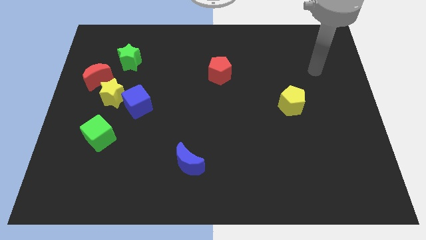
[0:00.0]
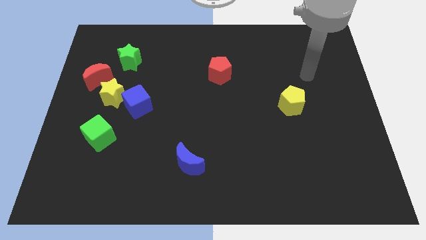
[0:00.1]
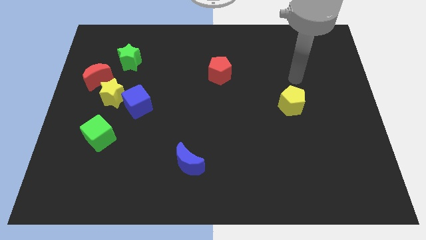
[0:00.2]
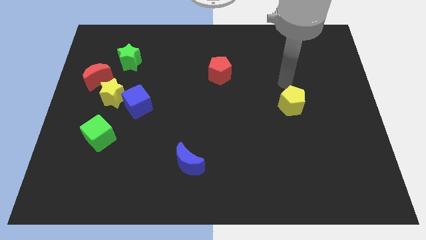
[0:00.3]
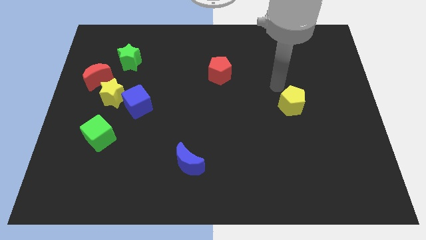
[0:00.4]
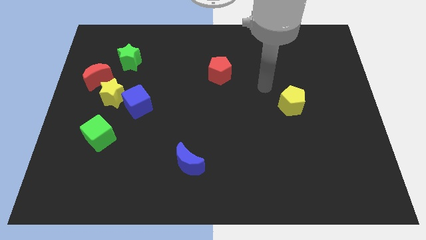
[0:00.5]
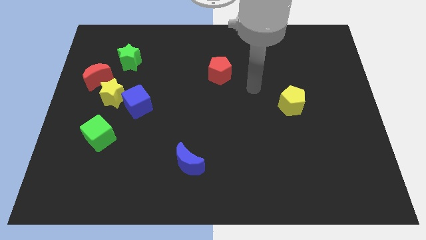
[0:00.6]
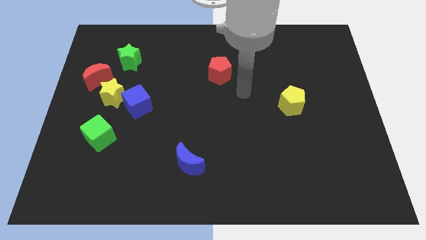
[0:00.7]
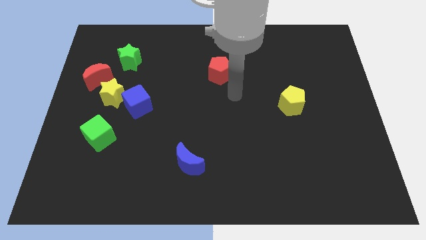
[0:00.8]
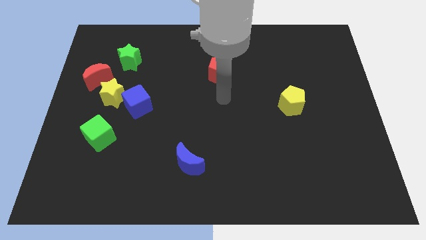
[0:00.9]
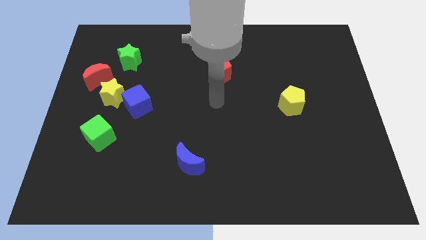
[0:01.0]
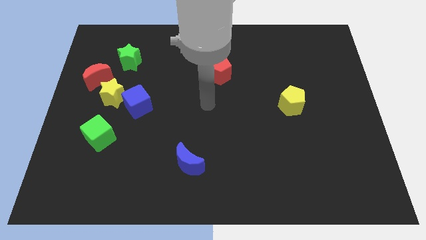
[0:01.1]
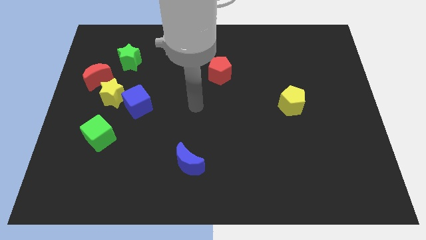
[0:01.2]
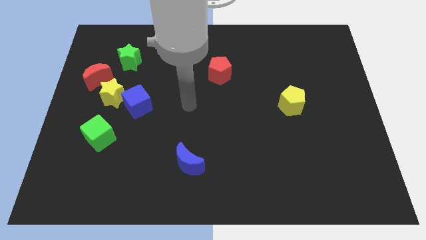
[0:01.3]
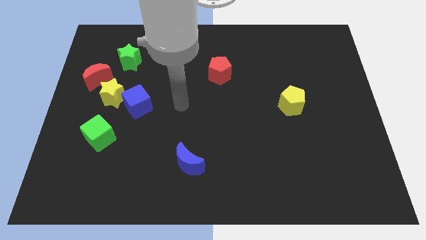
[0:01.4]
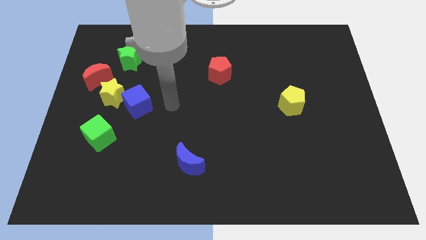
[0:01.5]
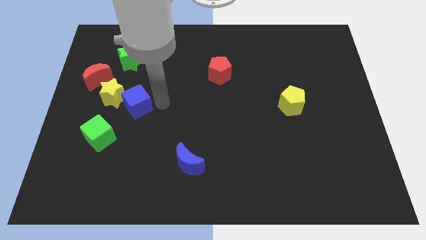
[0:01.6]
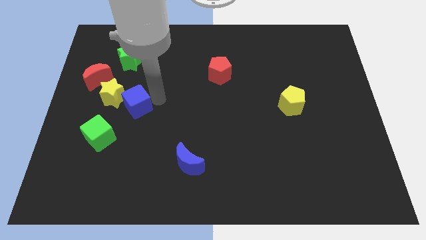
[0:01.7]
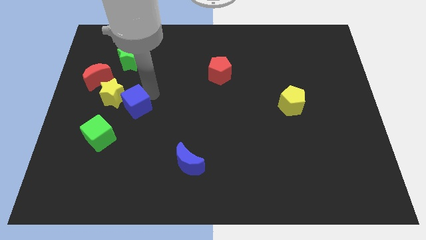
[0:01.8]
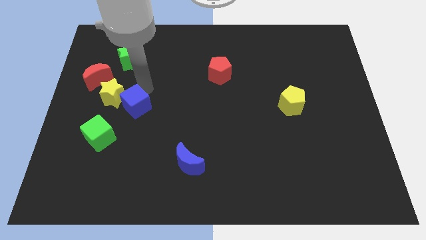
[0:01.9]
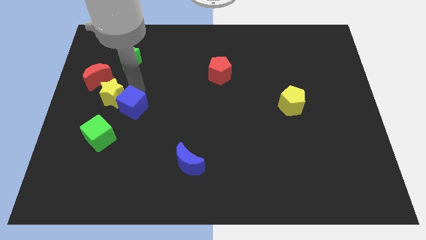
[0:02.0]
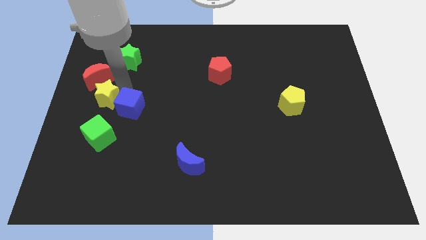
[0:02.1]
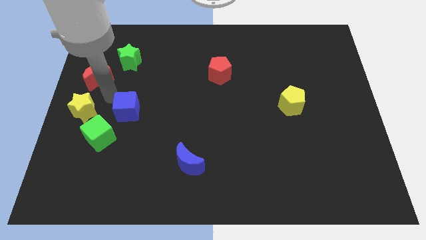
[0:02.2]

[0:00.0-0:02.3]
separate the blue cube from the yellow star

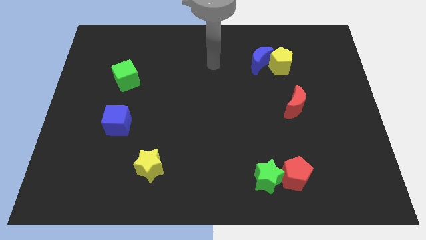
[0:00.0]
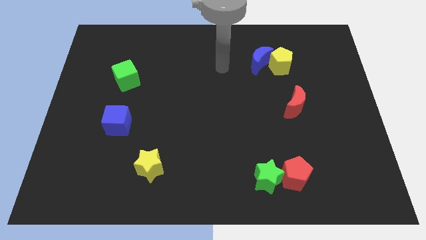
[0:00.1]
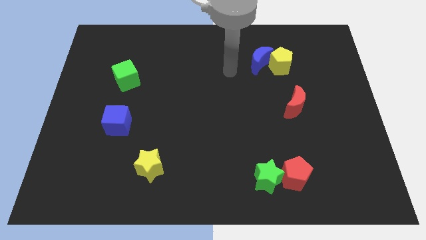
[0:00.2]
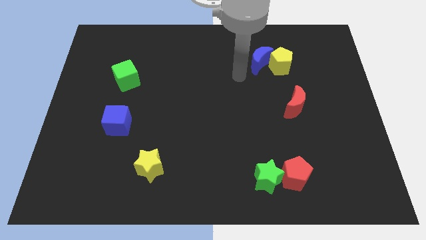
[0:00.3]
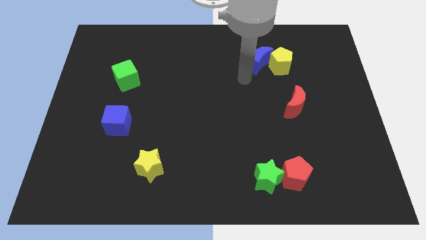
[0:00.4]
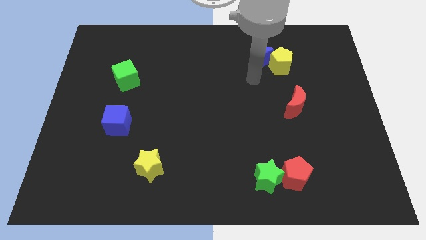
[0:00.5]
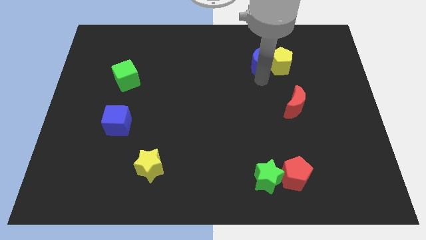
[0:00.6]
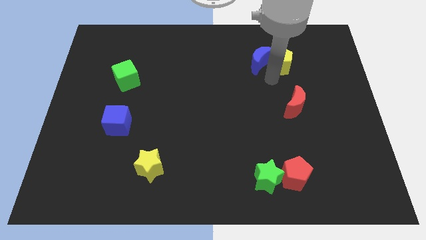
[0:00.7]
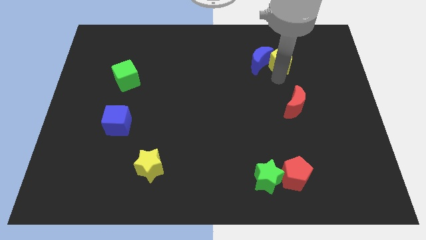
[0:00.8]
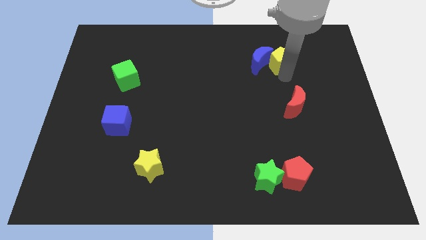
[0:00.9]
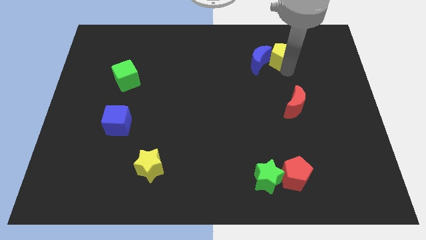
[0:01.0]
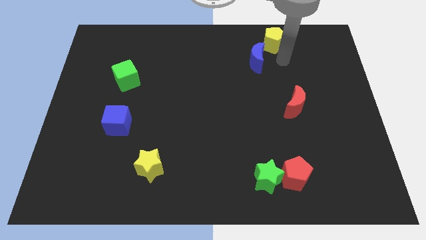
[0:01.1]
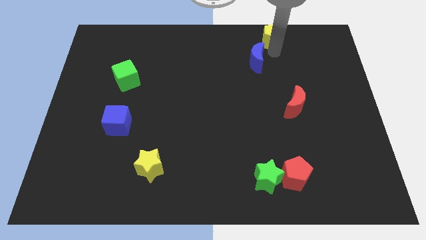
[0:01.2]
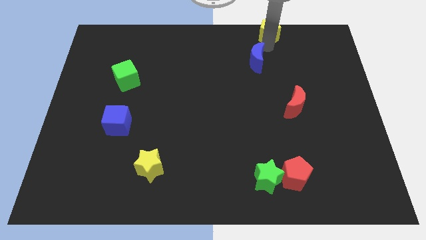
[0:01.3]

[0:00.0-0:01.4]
move the blue moon away from the yellow pentagon

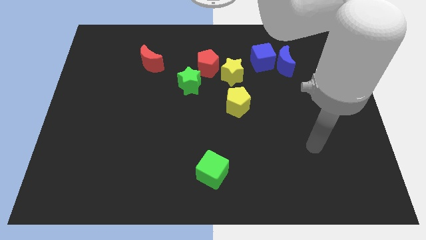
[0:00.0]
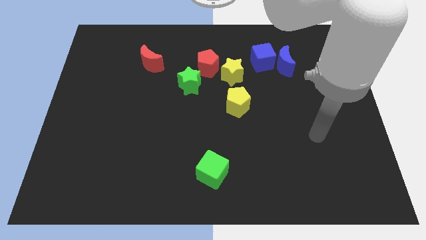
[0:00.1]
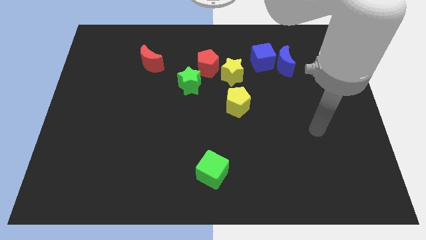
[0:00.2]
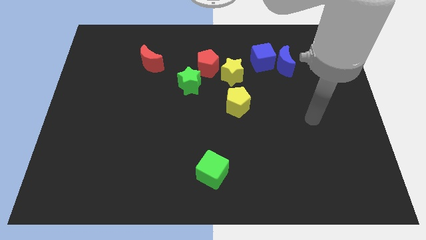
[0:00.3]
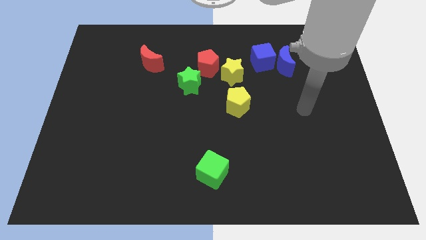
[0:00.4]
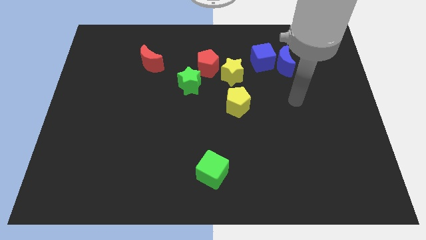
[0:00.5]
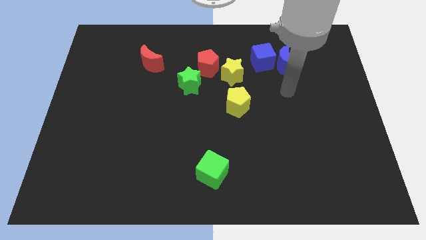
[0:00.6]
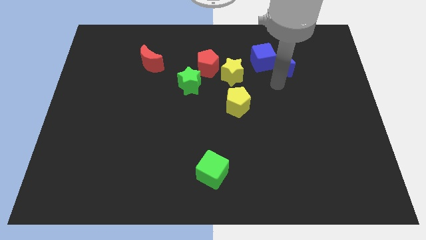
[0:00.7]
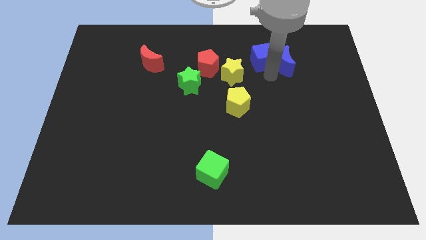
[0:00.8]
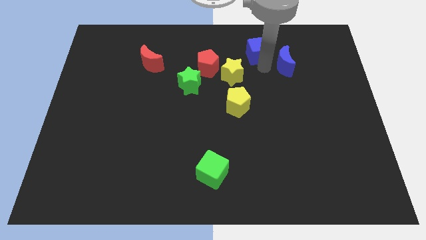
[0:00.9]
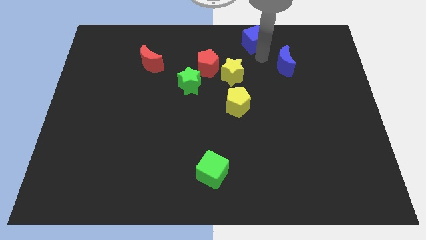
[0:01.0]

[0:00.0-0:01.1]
move the blue moon away from the blue cube

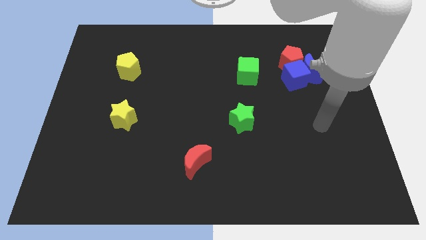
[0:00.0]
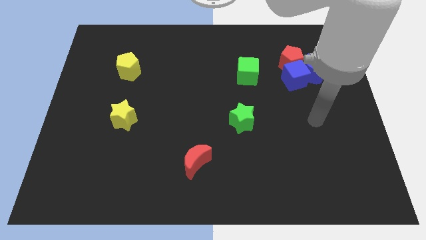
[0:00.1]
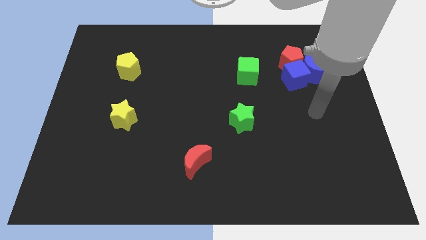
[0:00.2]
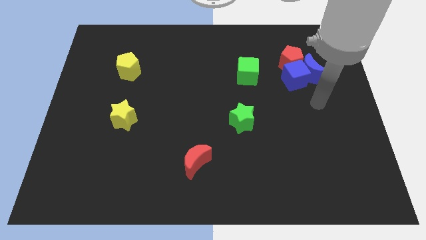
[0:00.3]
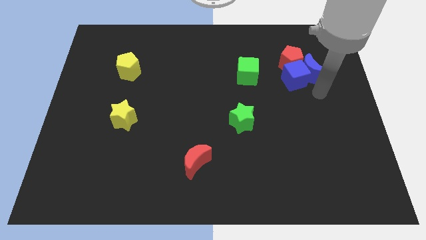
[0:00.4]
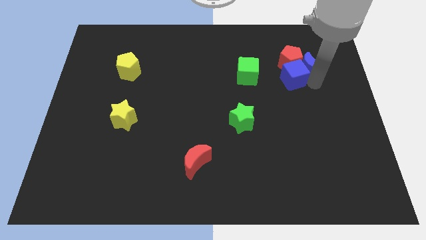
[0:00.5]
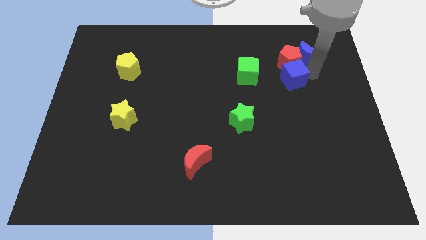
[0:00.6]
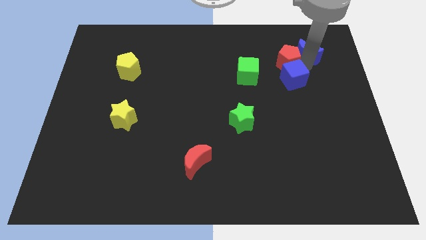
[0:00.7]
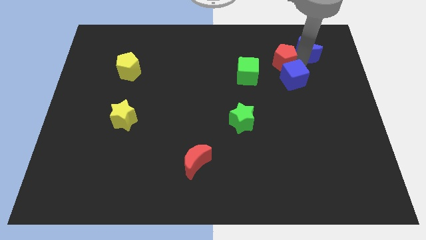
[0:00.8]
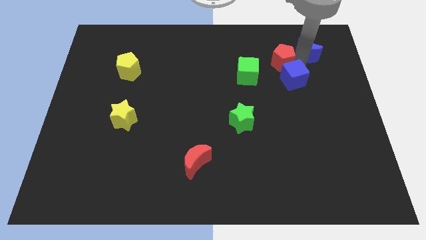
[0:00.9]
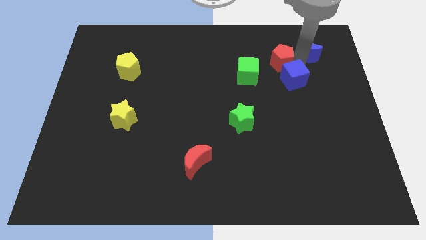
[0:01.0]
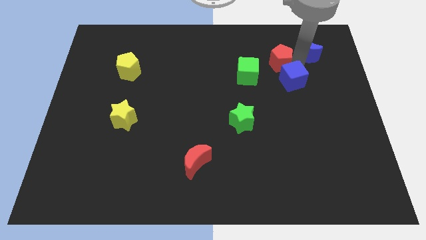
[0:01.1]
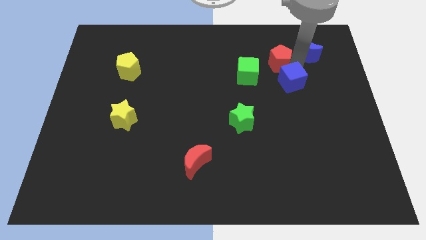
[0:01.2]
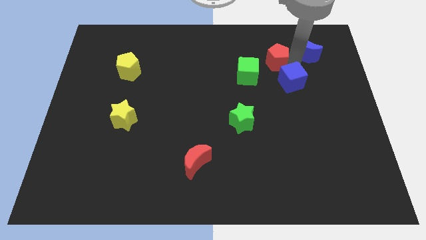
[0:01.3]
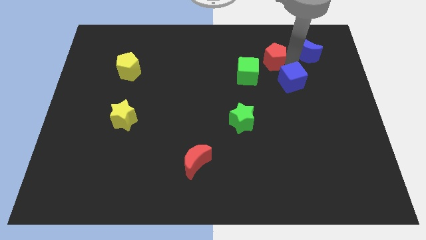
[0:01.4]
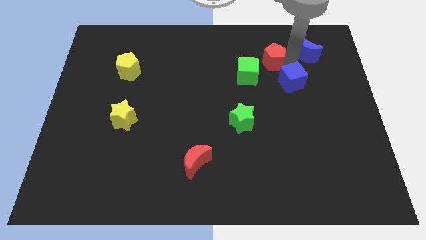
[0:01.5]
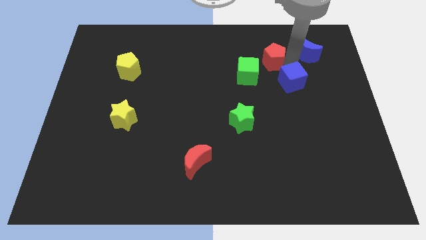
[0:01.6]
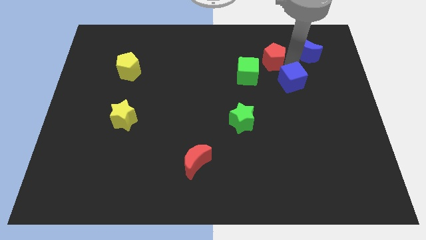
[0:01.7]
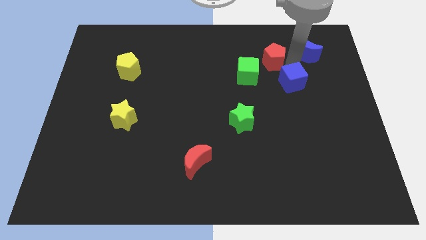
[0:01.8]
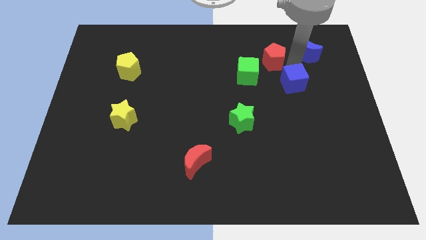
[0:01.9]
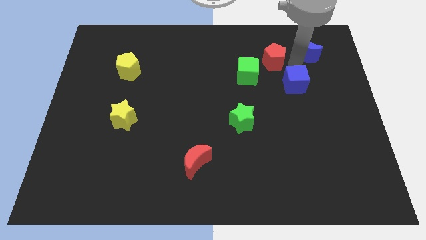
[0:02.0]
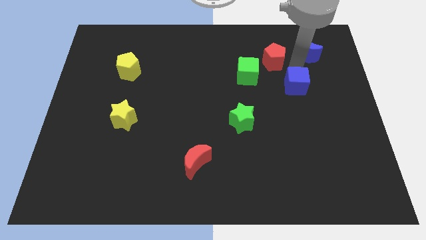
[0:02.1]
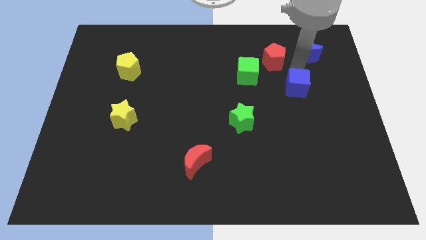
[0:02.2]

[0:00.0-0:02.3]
pull the blue cube apart from the blue moon and red pentagon

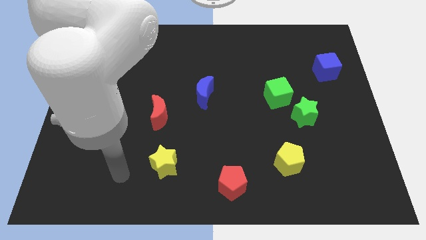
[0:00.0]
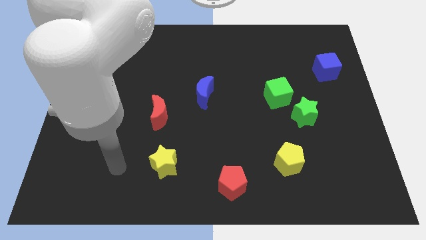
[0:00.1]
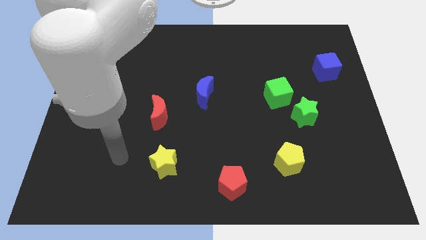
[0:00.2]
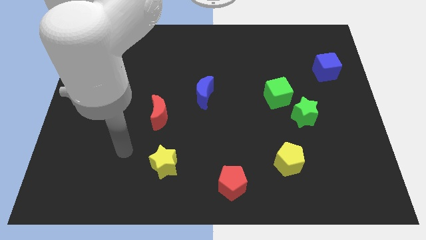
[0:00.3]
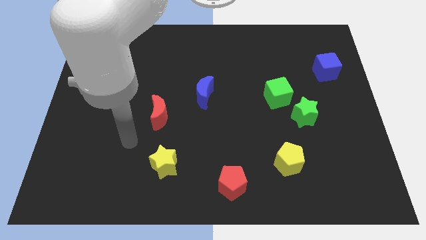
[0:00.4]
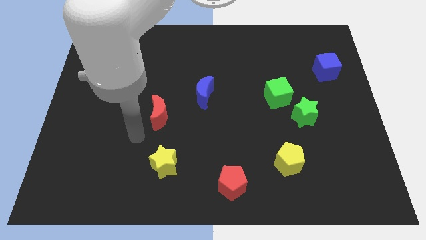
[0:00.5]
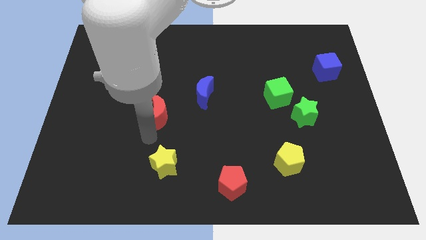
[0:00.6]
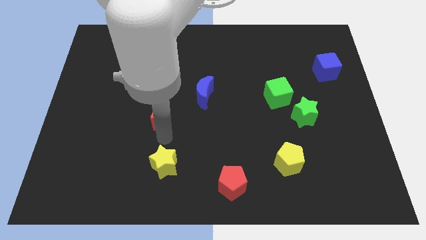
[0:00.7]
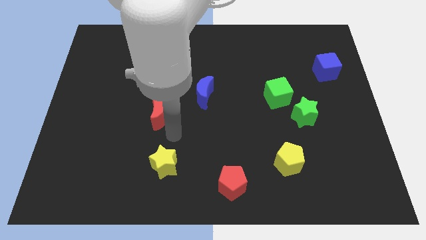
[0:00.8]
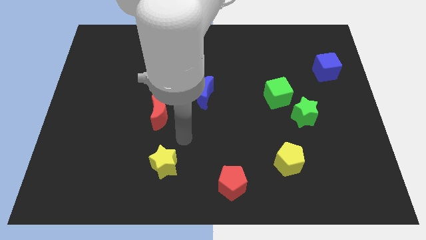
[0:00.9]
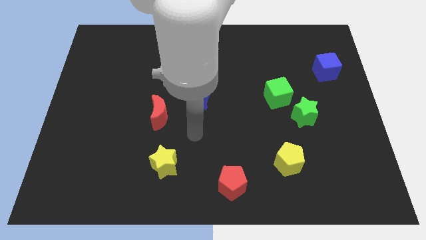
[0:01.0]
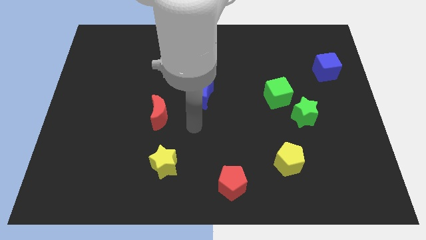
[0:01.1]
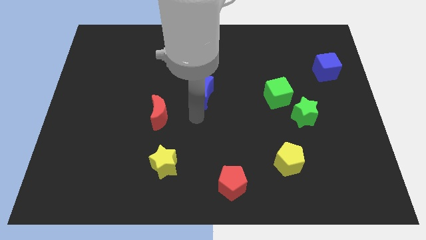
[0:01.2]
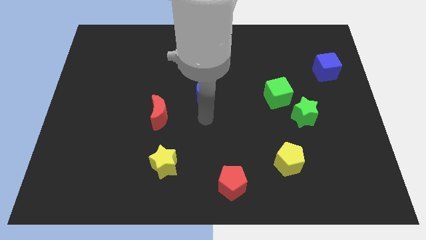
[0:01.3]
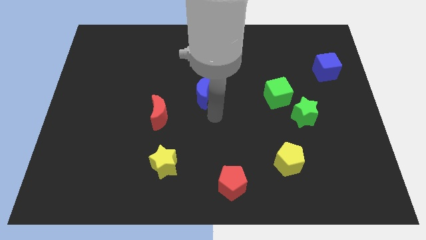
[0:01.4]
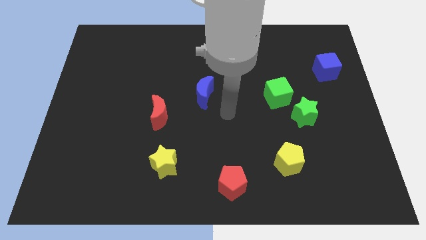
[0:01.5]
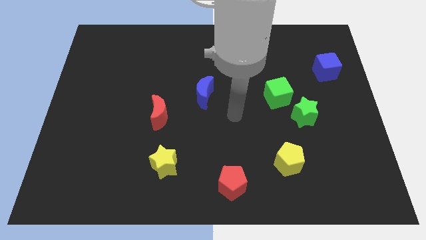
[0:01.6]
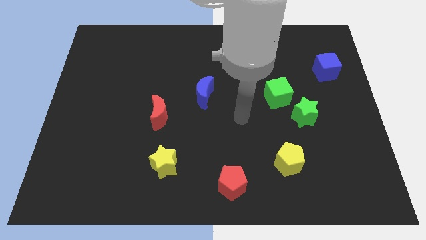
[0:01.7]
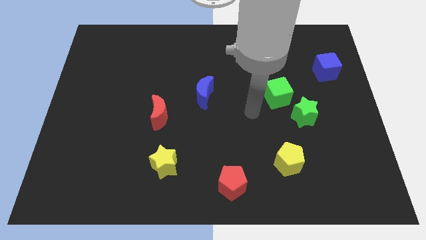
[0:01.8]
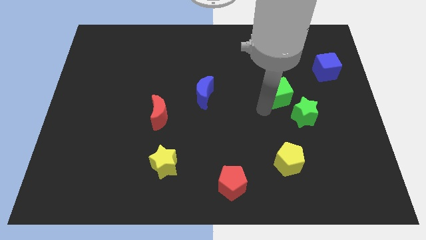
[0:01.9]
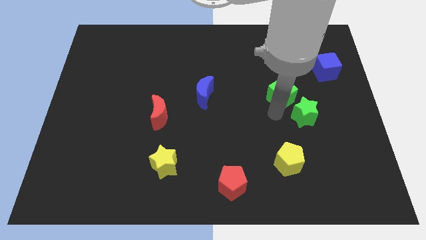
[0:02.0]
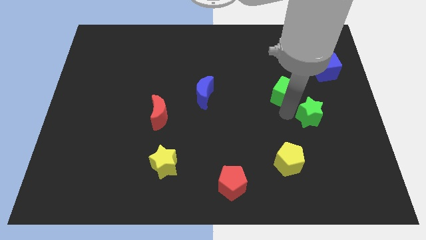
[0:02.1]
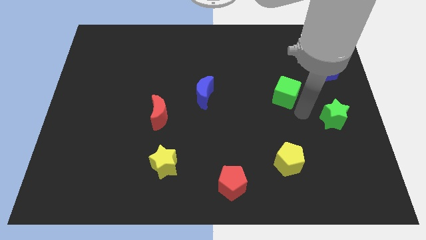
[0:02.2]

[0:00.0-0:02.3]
separate the green cube from the green star
